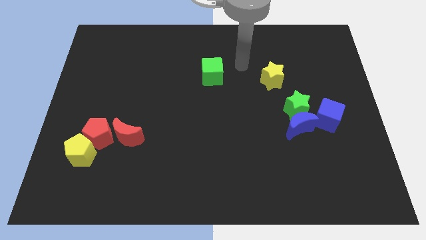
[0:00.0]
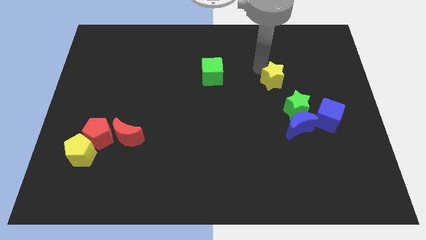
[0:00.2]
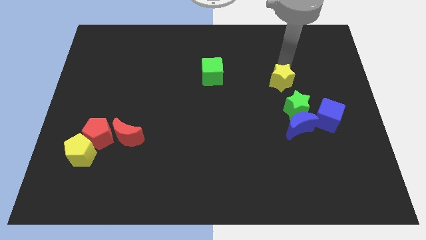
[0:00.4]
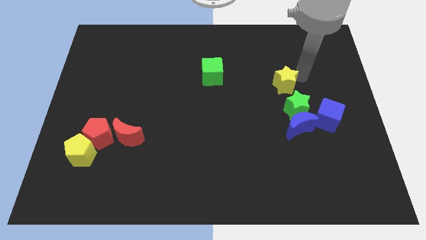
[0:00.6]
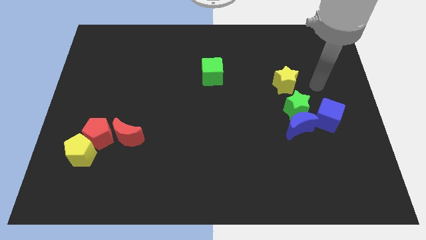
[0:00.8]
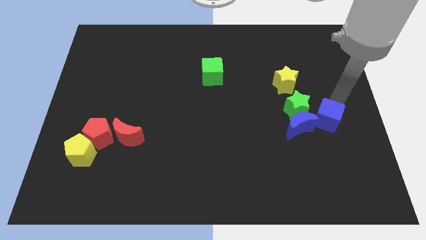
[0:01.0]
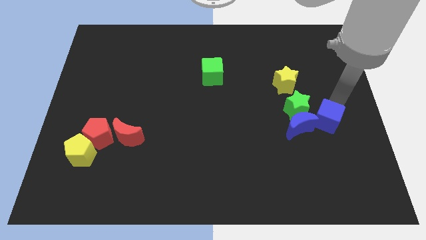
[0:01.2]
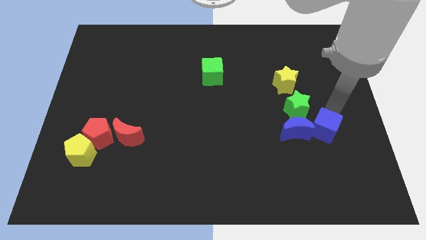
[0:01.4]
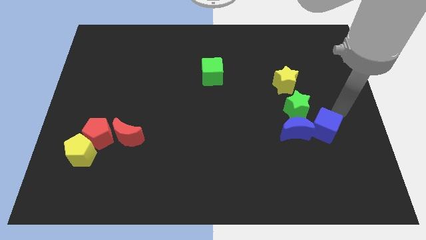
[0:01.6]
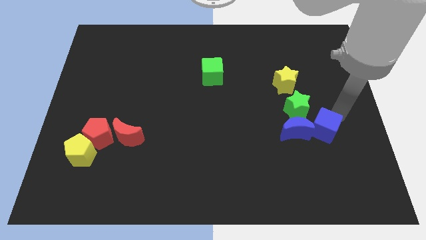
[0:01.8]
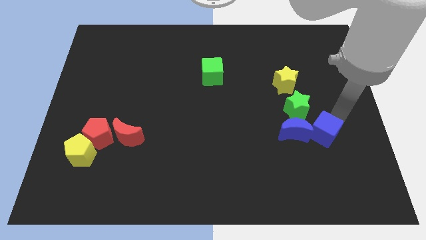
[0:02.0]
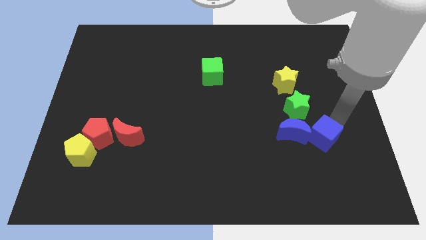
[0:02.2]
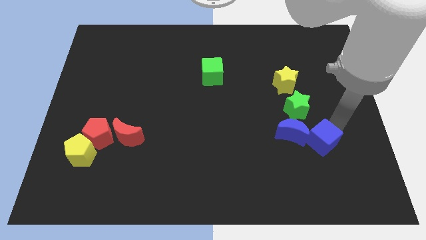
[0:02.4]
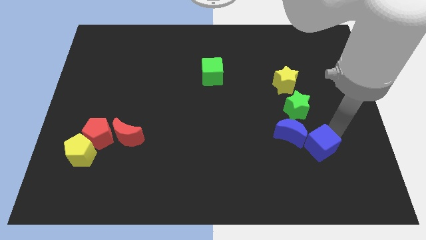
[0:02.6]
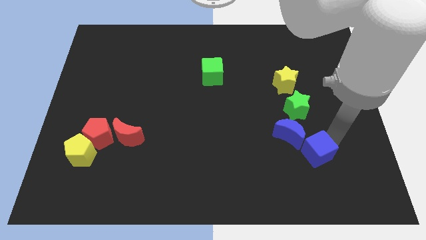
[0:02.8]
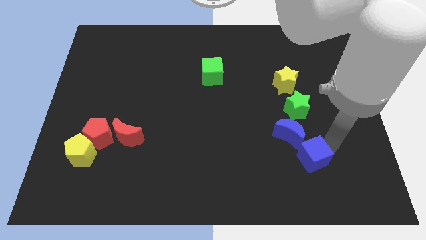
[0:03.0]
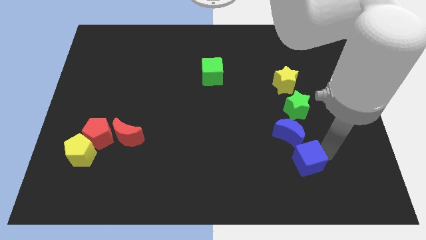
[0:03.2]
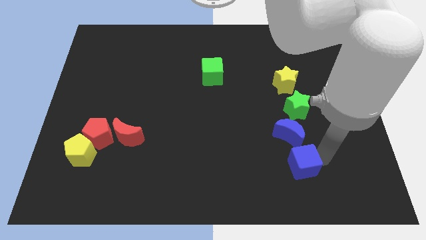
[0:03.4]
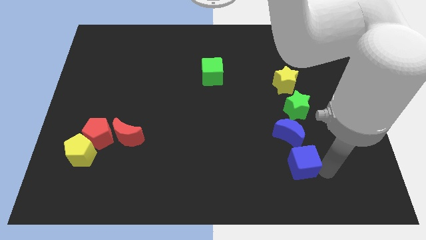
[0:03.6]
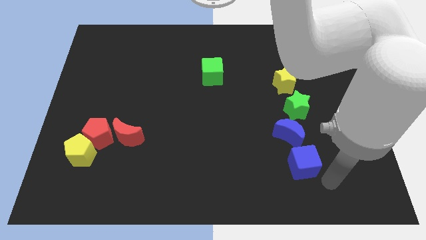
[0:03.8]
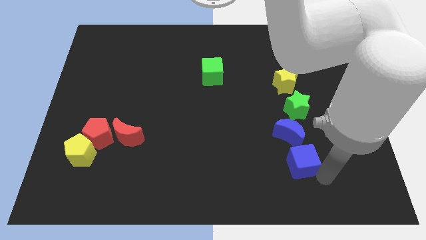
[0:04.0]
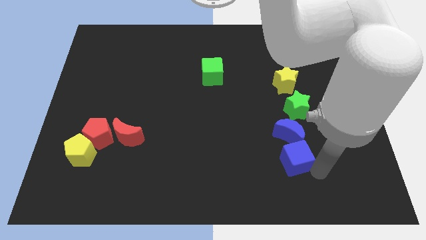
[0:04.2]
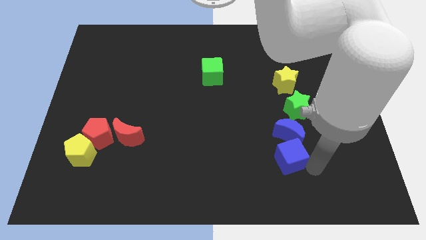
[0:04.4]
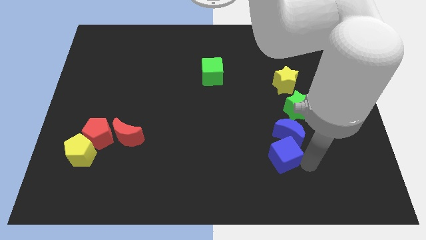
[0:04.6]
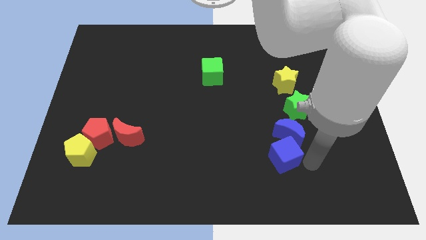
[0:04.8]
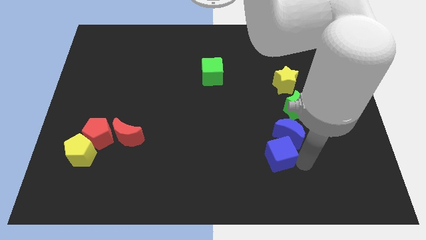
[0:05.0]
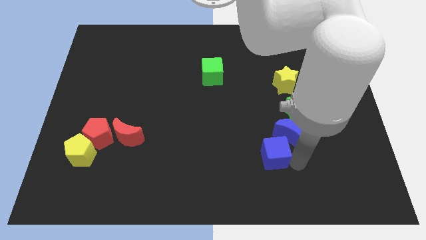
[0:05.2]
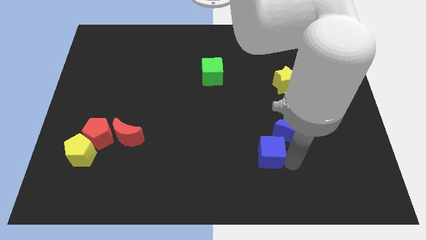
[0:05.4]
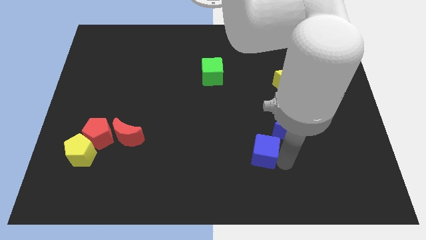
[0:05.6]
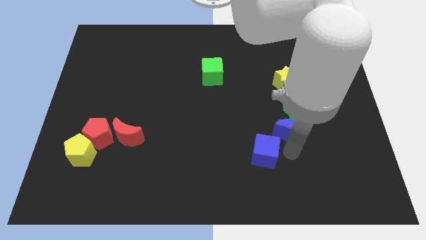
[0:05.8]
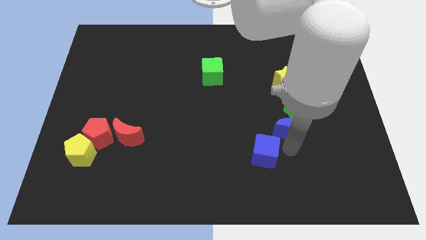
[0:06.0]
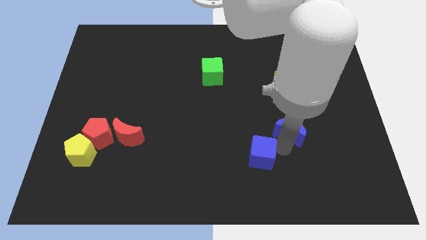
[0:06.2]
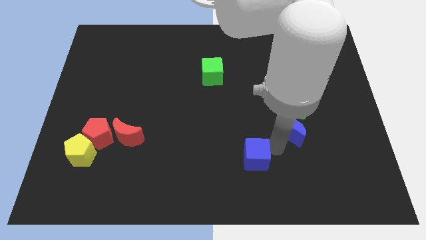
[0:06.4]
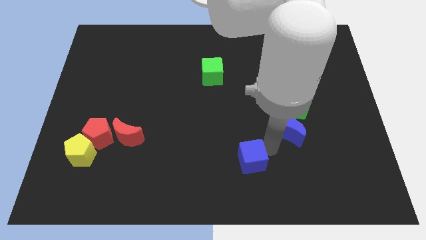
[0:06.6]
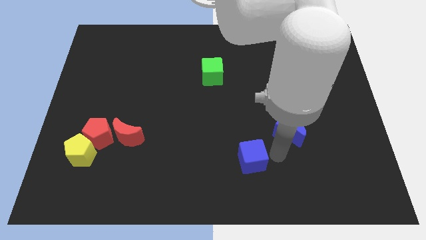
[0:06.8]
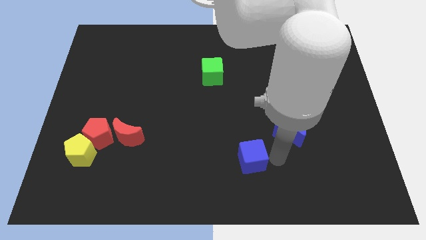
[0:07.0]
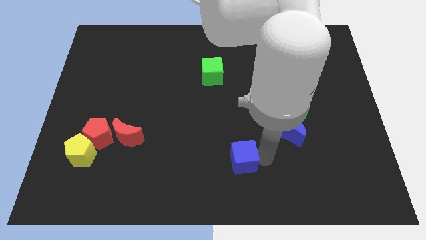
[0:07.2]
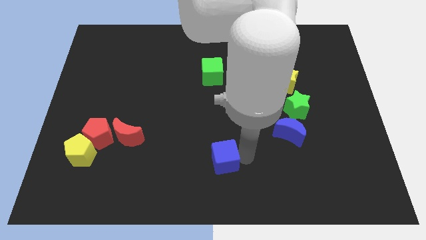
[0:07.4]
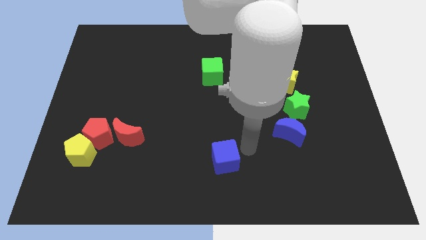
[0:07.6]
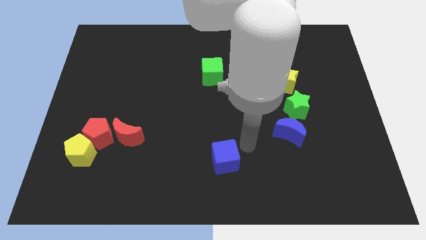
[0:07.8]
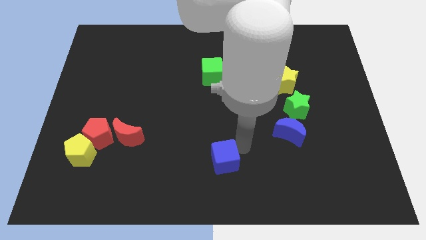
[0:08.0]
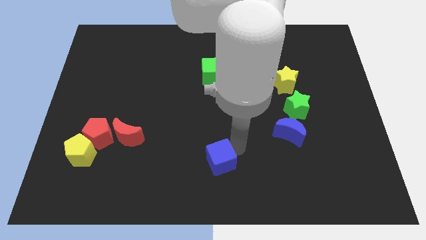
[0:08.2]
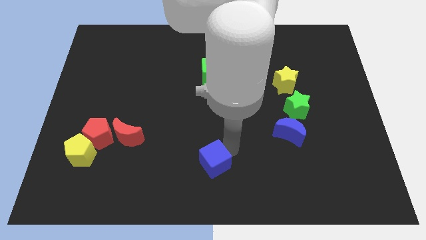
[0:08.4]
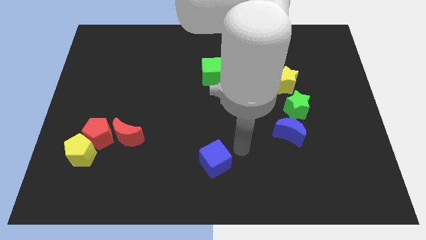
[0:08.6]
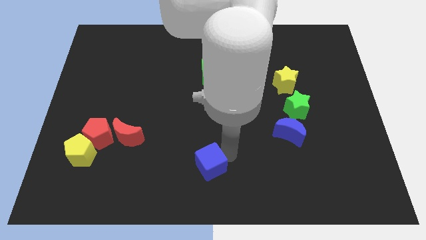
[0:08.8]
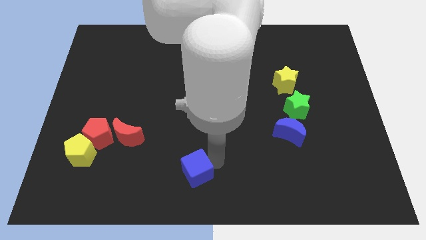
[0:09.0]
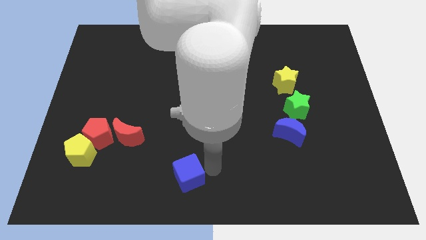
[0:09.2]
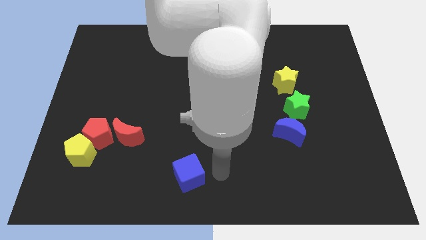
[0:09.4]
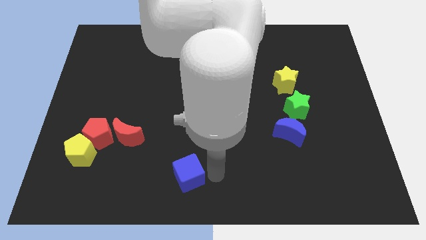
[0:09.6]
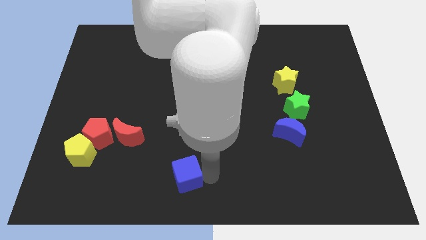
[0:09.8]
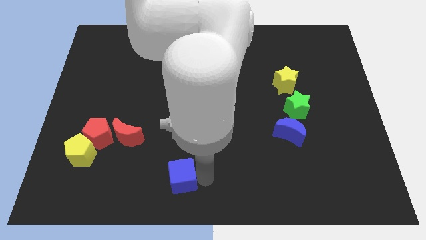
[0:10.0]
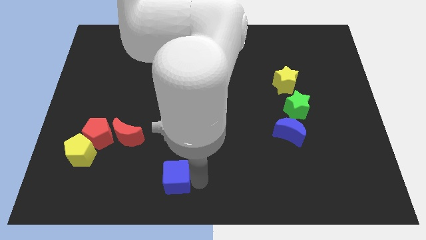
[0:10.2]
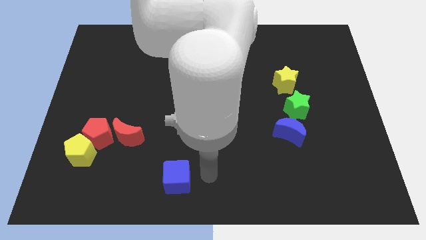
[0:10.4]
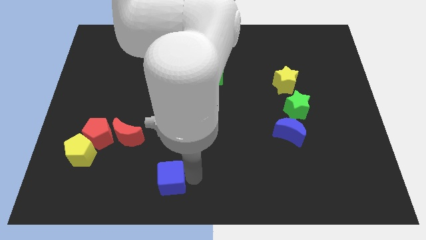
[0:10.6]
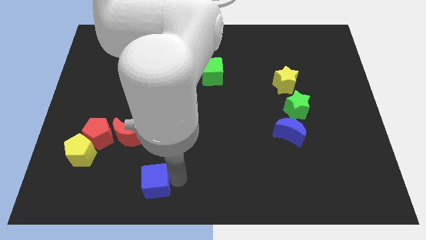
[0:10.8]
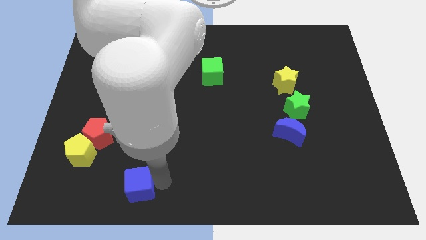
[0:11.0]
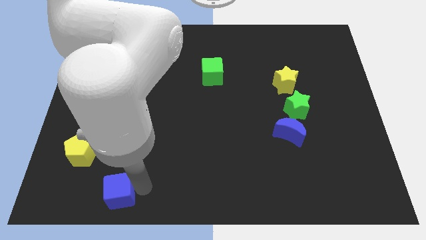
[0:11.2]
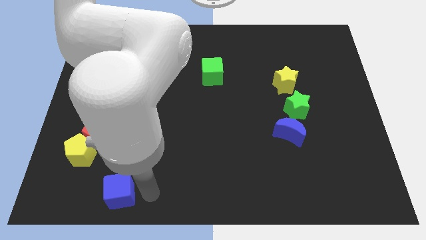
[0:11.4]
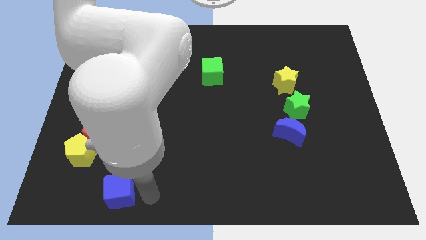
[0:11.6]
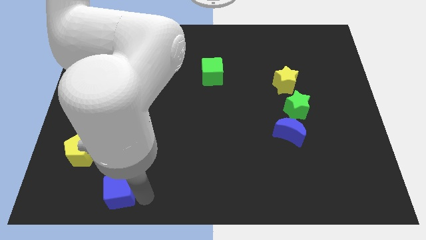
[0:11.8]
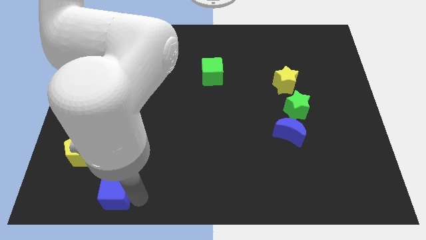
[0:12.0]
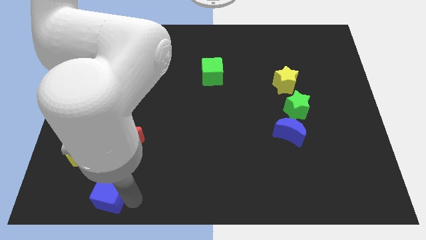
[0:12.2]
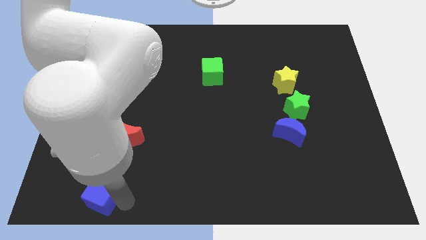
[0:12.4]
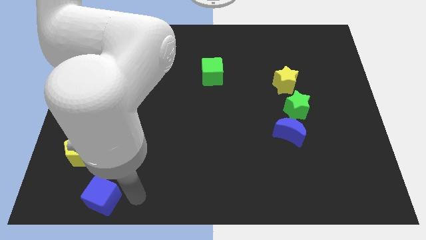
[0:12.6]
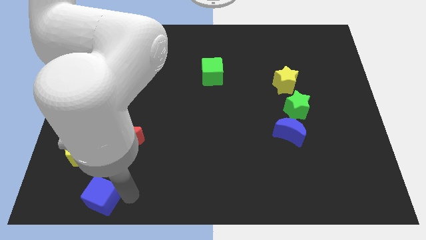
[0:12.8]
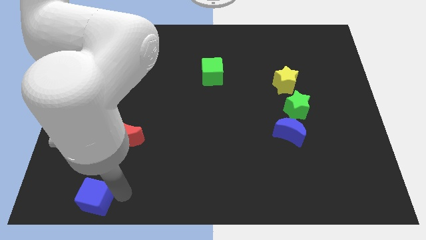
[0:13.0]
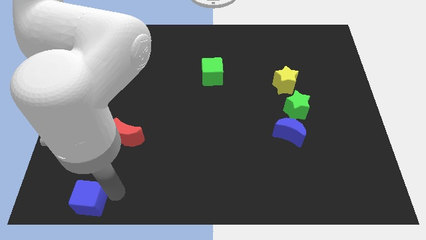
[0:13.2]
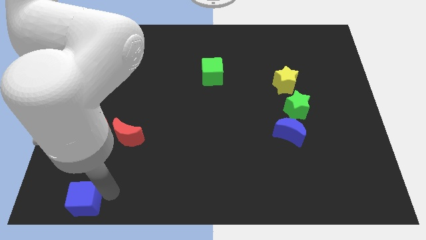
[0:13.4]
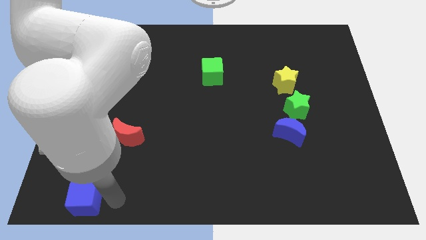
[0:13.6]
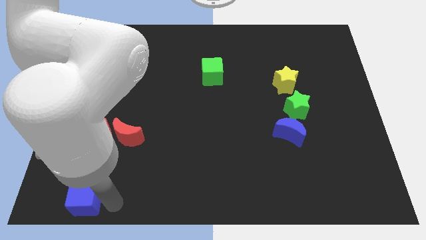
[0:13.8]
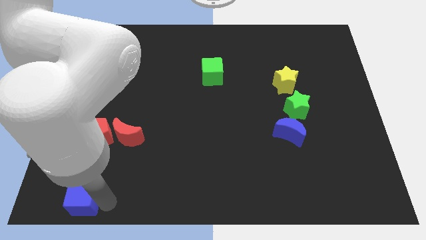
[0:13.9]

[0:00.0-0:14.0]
push the blue cube to the bottom left of the board
